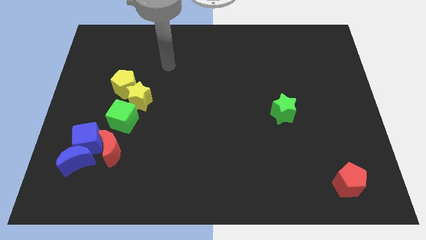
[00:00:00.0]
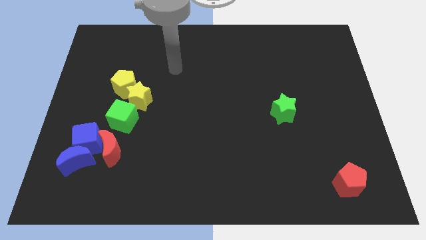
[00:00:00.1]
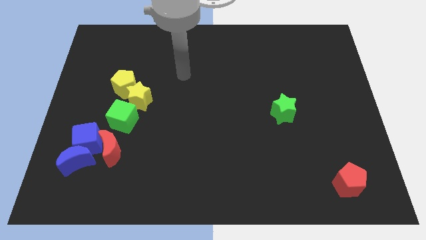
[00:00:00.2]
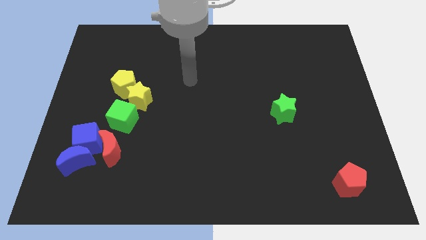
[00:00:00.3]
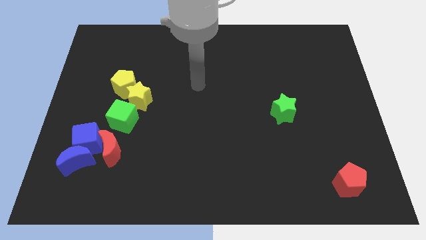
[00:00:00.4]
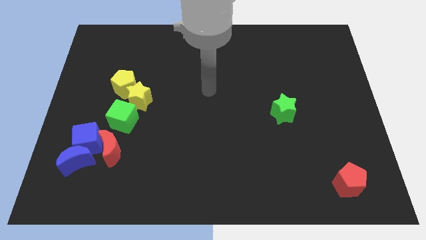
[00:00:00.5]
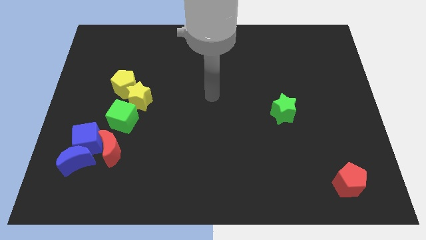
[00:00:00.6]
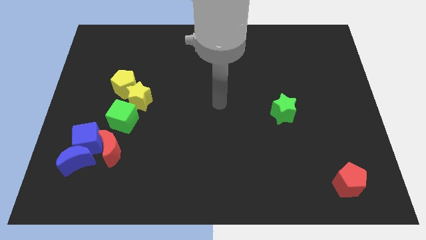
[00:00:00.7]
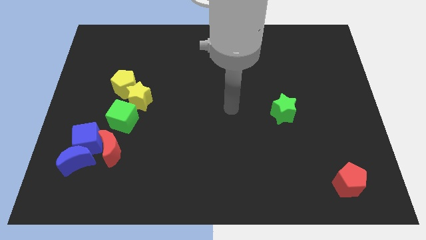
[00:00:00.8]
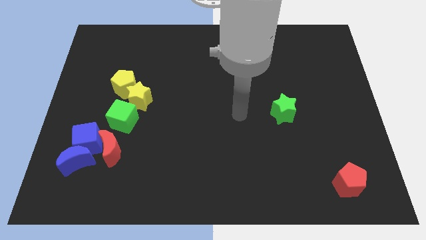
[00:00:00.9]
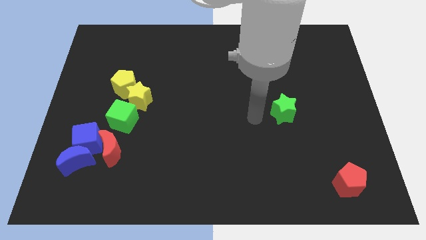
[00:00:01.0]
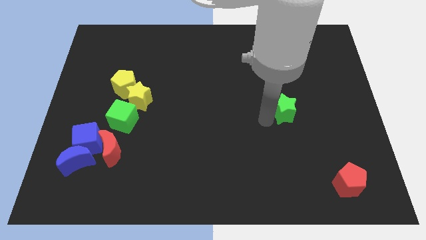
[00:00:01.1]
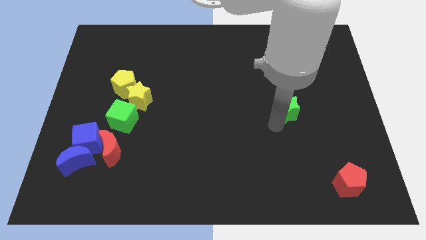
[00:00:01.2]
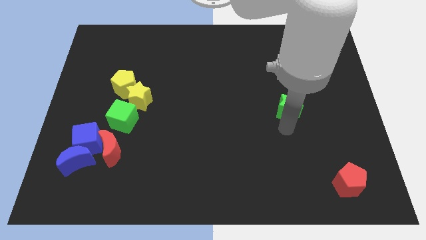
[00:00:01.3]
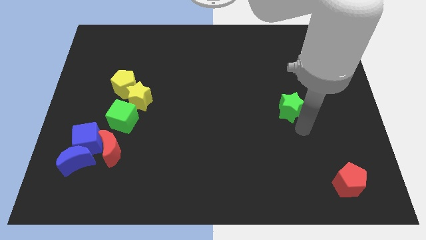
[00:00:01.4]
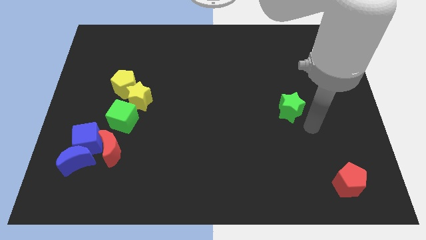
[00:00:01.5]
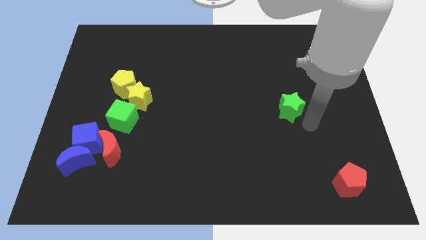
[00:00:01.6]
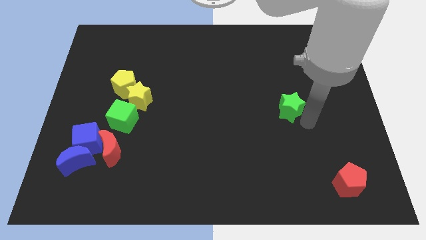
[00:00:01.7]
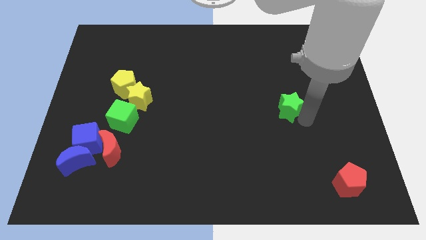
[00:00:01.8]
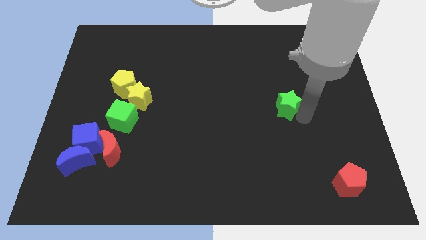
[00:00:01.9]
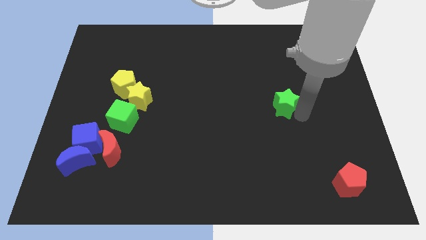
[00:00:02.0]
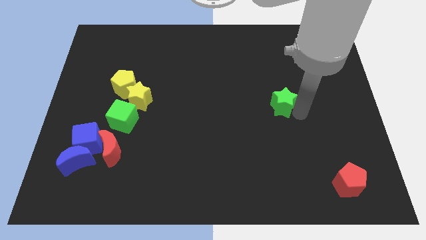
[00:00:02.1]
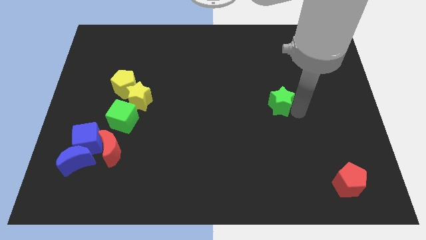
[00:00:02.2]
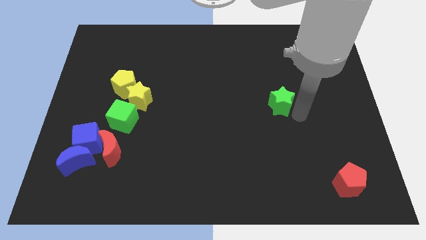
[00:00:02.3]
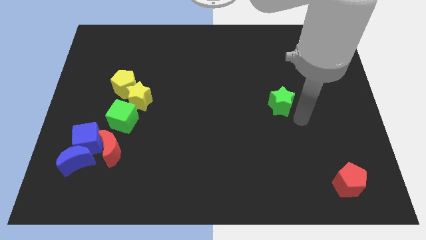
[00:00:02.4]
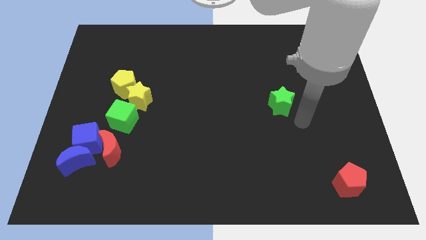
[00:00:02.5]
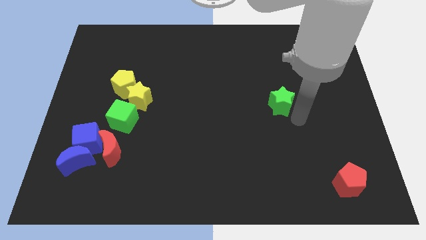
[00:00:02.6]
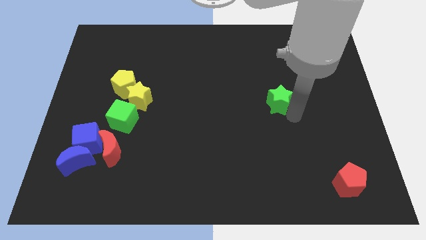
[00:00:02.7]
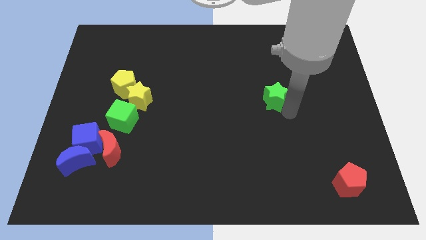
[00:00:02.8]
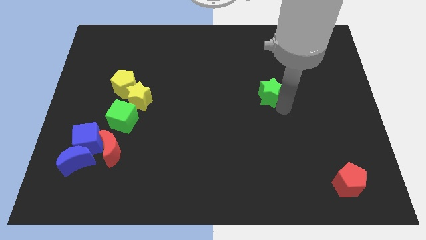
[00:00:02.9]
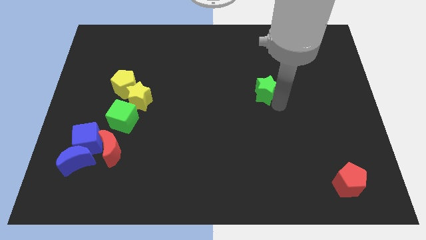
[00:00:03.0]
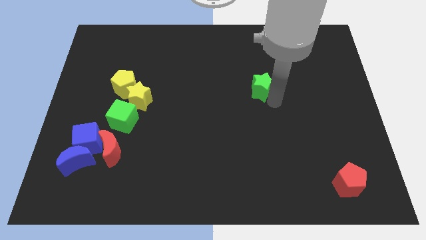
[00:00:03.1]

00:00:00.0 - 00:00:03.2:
move the green star a little bit up and then to the left

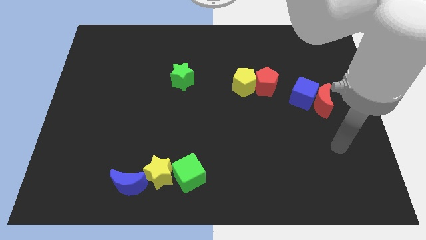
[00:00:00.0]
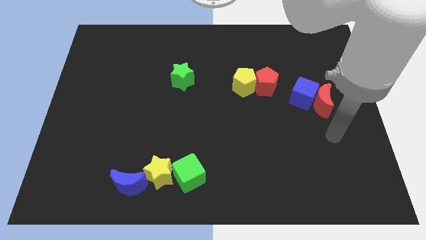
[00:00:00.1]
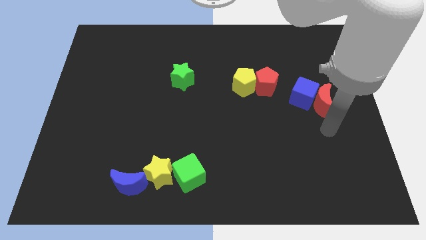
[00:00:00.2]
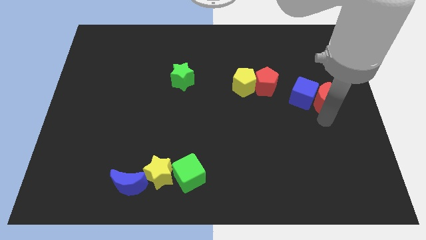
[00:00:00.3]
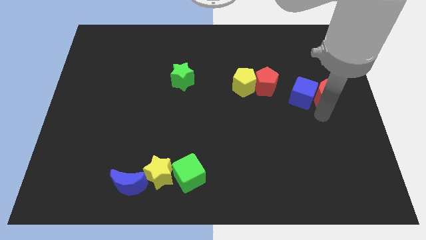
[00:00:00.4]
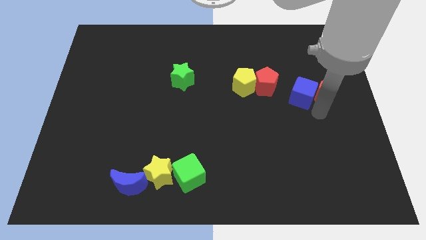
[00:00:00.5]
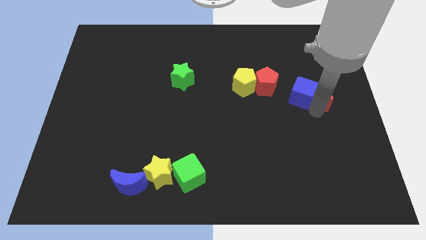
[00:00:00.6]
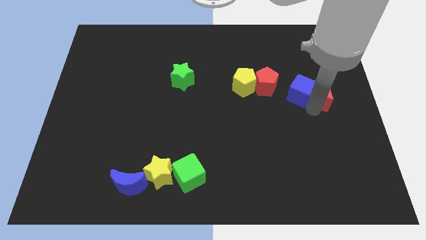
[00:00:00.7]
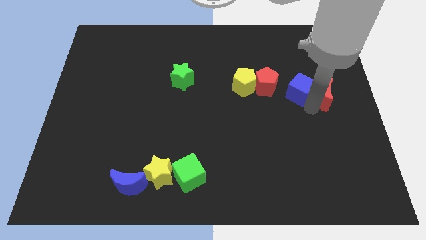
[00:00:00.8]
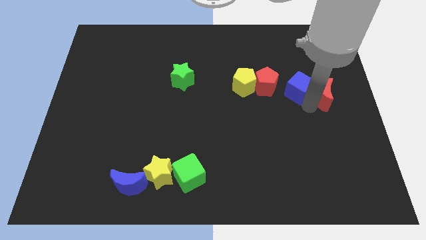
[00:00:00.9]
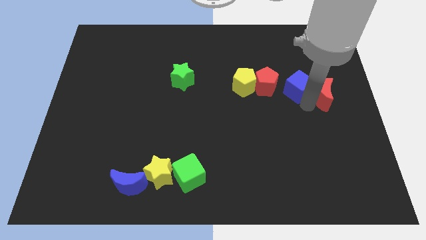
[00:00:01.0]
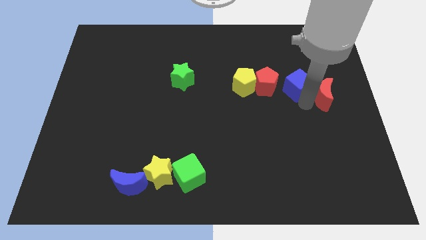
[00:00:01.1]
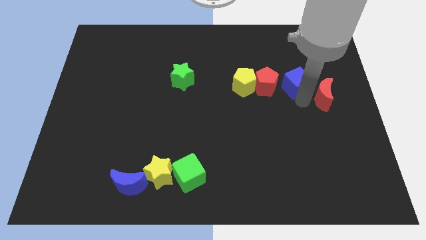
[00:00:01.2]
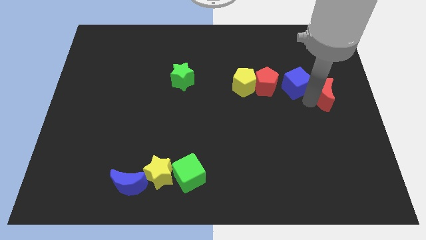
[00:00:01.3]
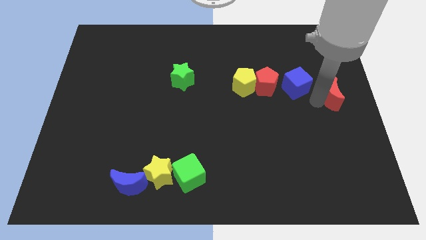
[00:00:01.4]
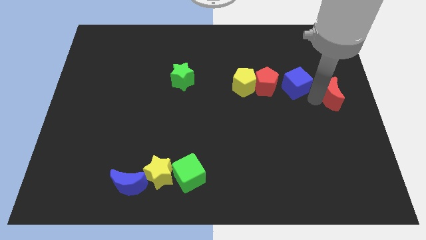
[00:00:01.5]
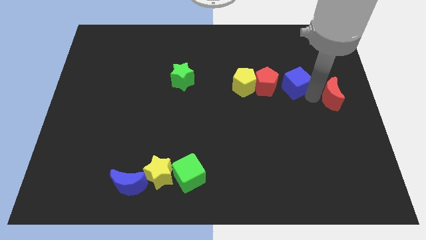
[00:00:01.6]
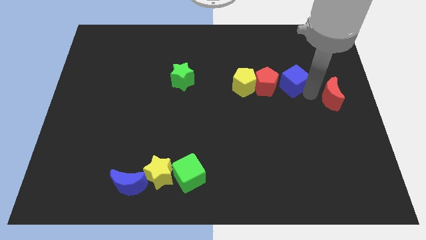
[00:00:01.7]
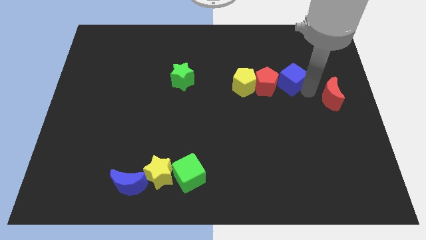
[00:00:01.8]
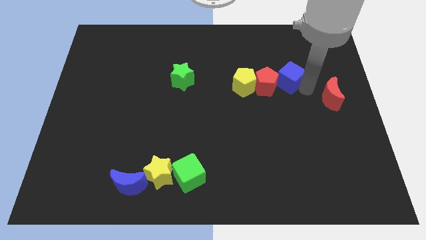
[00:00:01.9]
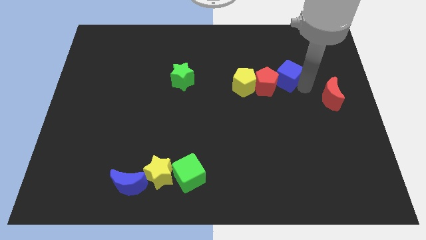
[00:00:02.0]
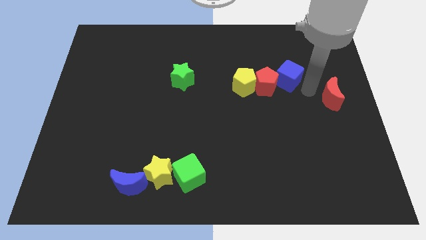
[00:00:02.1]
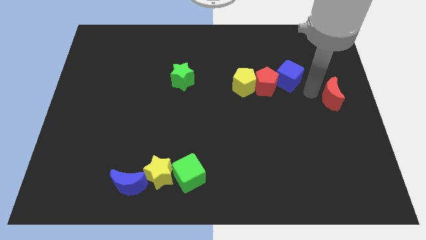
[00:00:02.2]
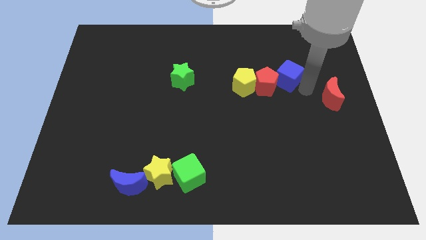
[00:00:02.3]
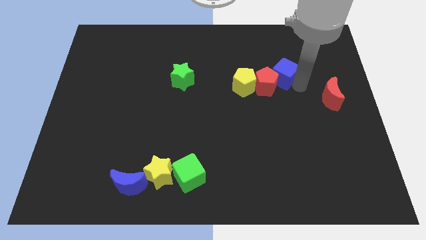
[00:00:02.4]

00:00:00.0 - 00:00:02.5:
slightly slide the blue cube up and then left

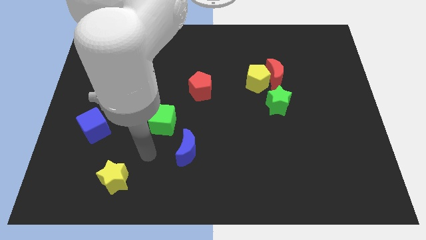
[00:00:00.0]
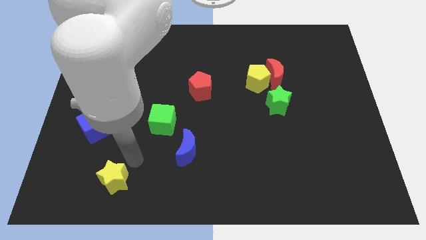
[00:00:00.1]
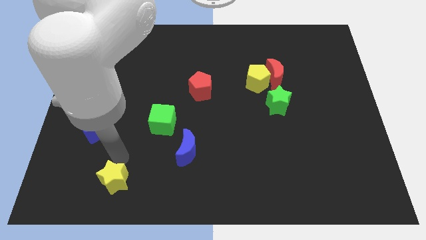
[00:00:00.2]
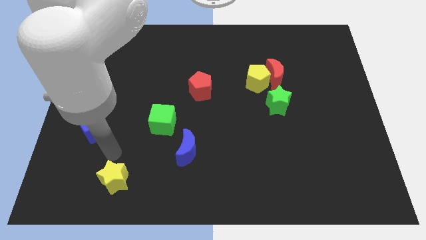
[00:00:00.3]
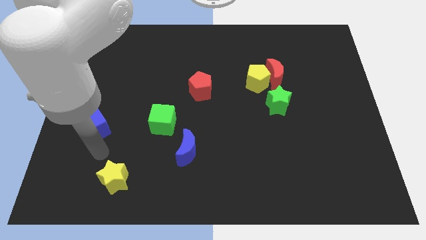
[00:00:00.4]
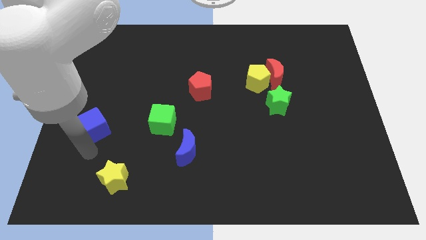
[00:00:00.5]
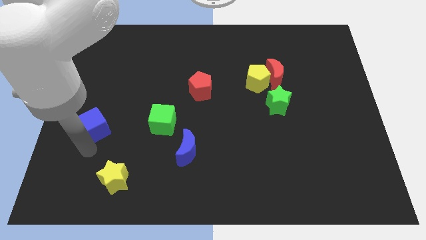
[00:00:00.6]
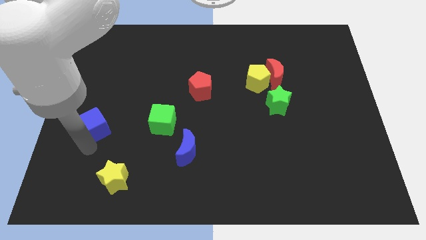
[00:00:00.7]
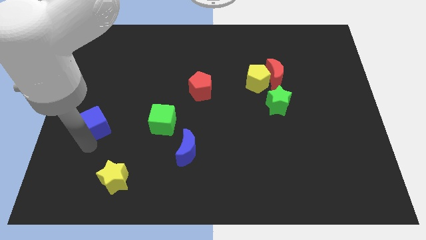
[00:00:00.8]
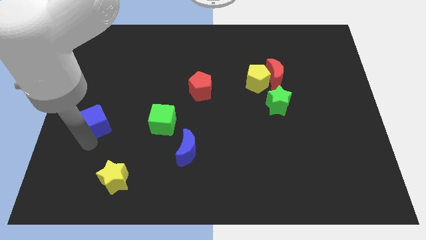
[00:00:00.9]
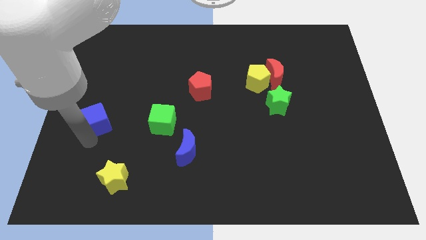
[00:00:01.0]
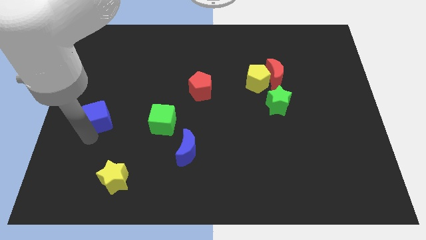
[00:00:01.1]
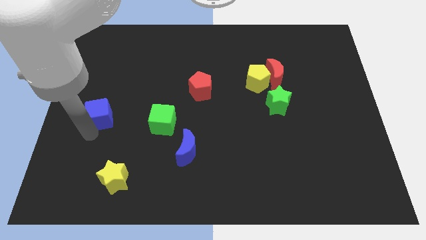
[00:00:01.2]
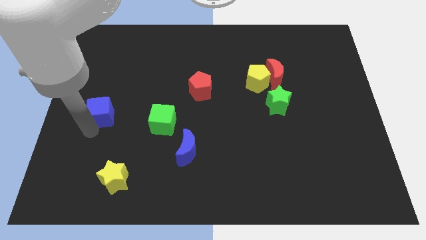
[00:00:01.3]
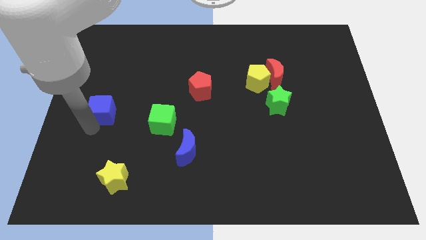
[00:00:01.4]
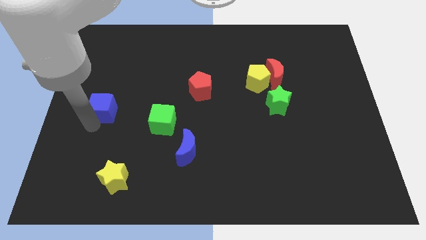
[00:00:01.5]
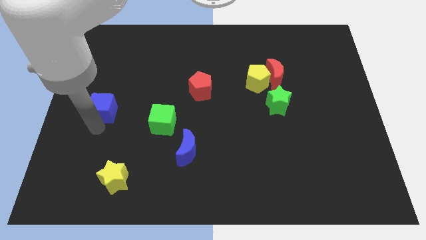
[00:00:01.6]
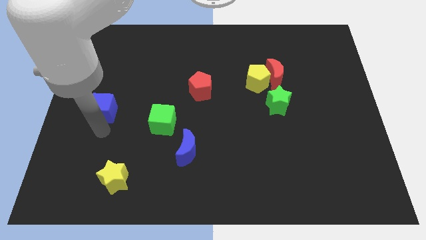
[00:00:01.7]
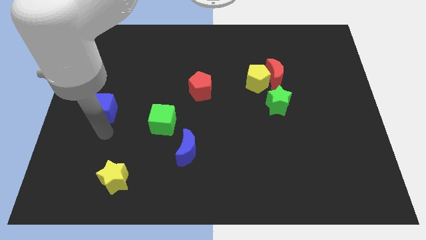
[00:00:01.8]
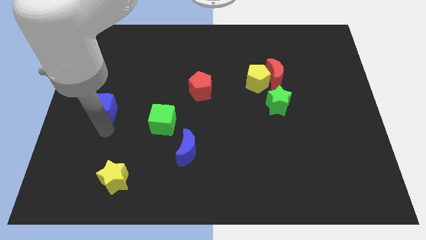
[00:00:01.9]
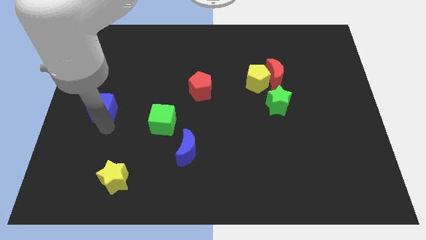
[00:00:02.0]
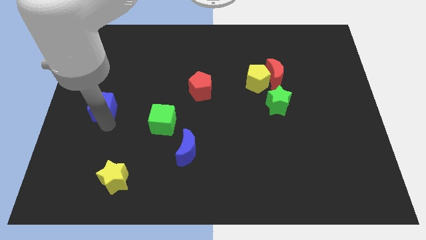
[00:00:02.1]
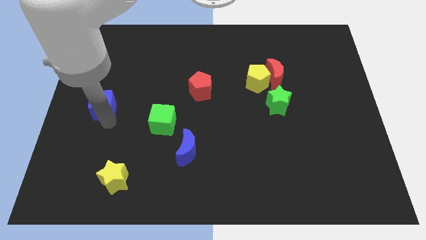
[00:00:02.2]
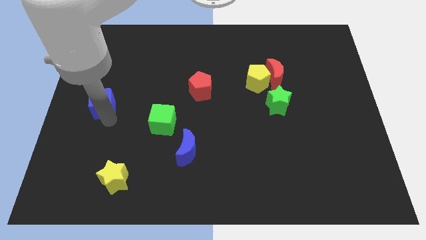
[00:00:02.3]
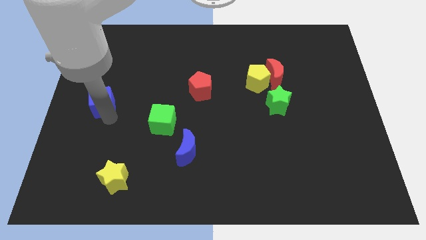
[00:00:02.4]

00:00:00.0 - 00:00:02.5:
slightly push the blue cube upwards
